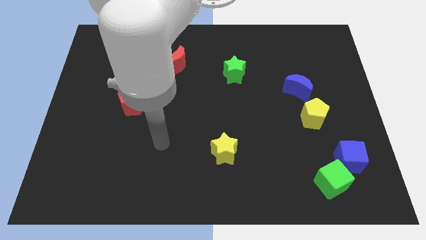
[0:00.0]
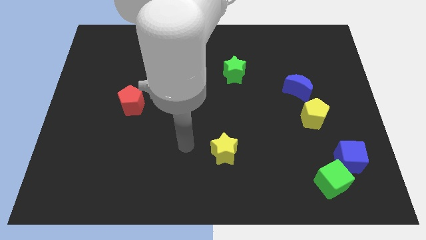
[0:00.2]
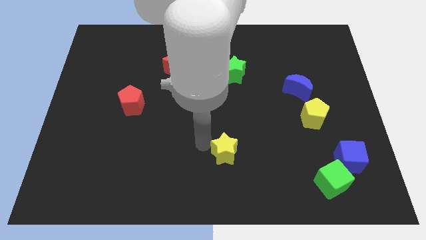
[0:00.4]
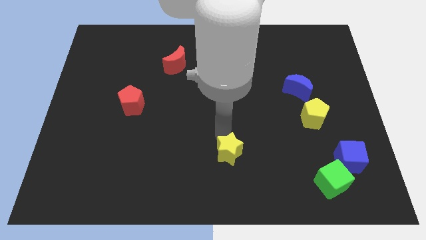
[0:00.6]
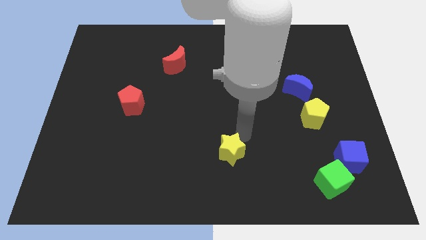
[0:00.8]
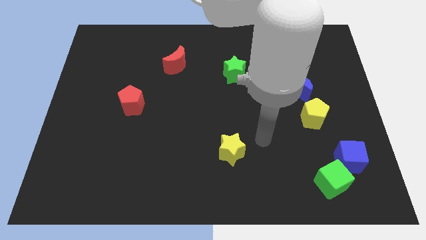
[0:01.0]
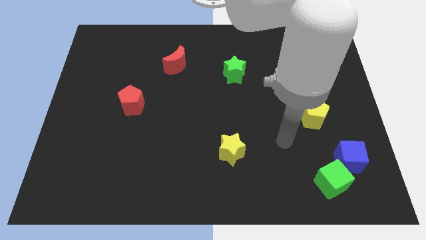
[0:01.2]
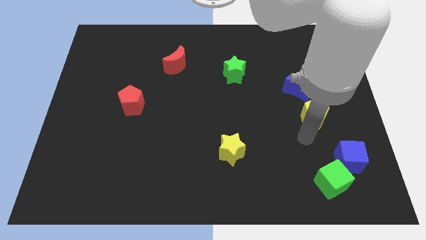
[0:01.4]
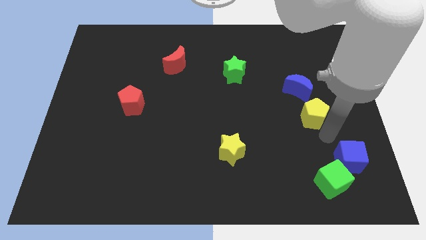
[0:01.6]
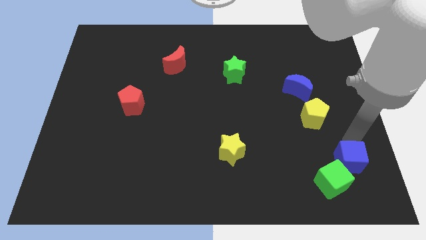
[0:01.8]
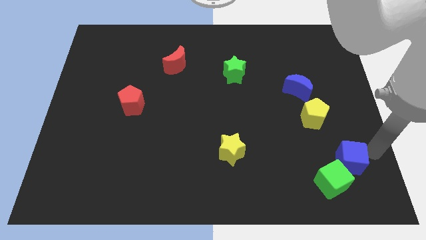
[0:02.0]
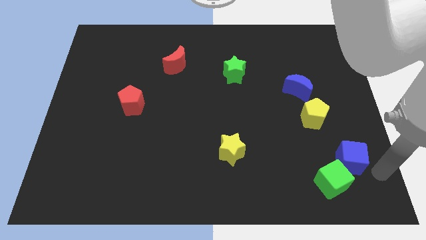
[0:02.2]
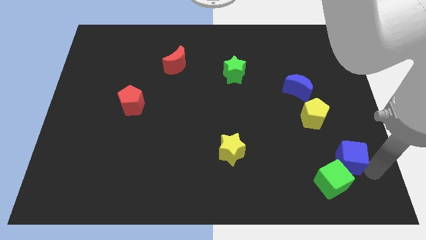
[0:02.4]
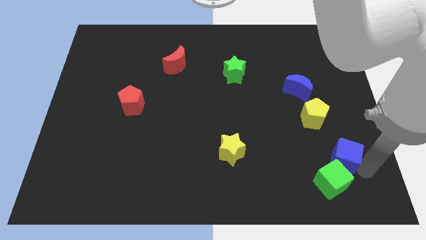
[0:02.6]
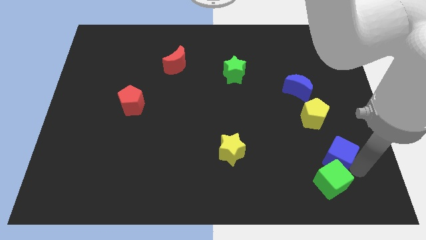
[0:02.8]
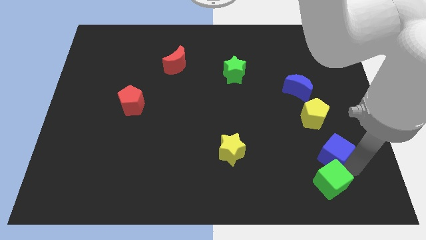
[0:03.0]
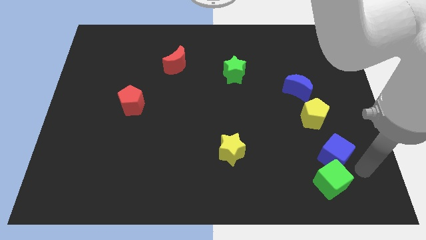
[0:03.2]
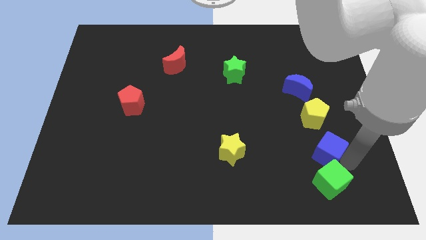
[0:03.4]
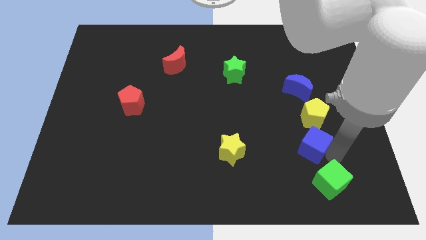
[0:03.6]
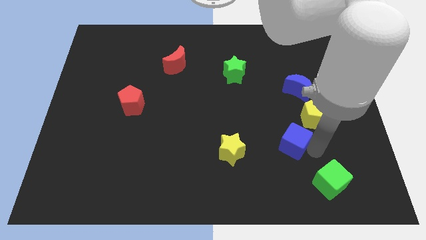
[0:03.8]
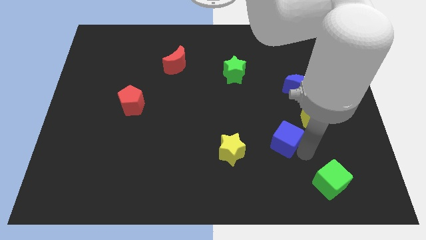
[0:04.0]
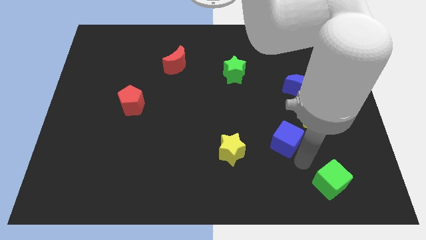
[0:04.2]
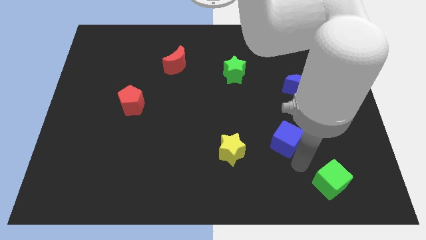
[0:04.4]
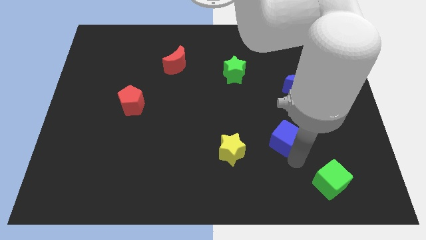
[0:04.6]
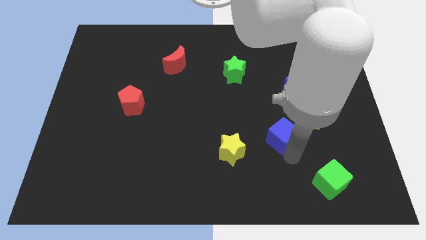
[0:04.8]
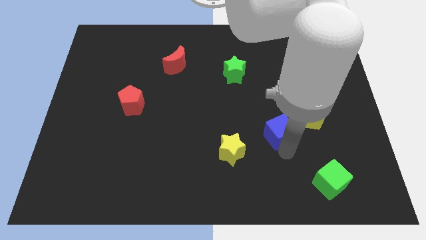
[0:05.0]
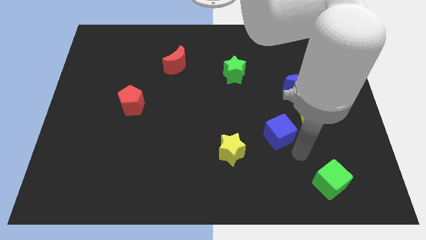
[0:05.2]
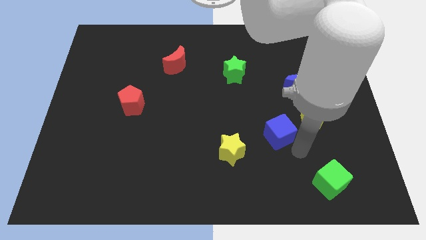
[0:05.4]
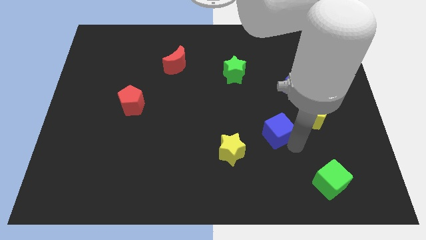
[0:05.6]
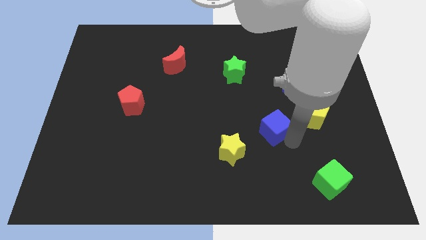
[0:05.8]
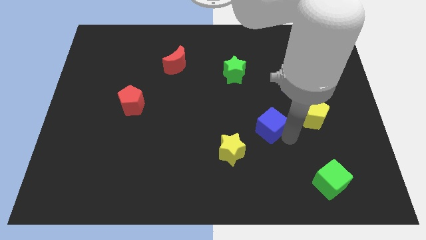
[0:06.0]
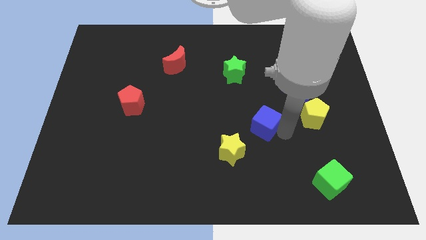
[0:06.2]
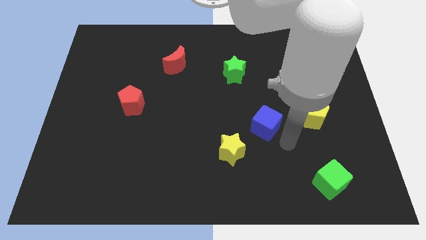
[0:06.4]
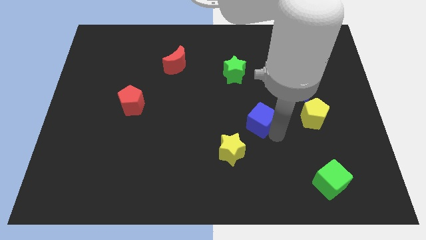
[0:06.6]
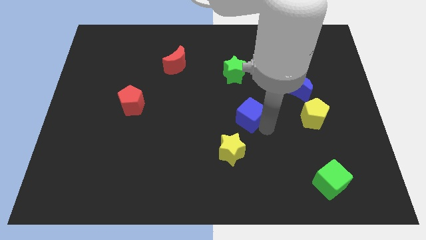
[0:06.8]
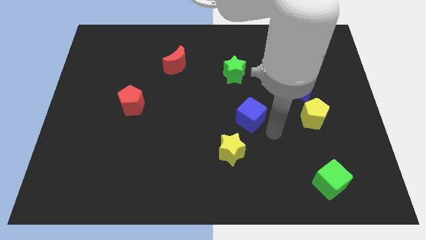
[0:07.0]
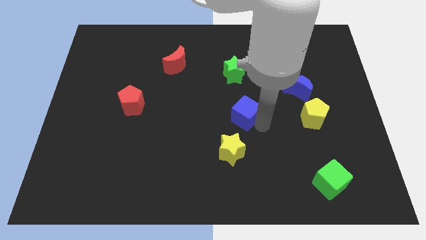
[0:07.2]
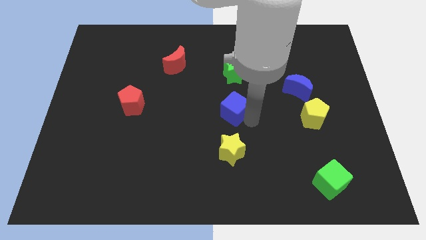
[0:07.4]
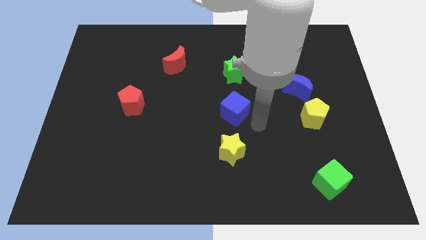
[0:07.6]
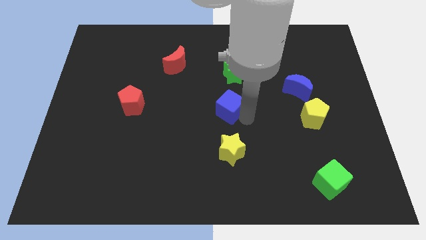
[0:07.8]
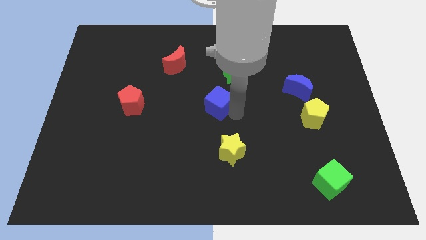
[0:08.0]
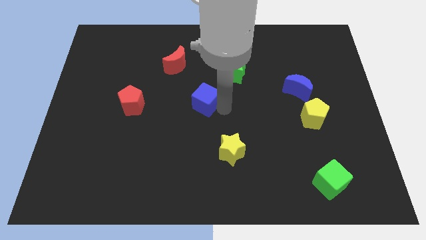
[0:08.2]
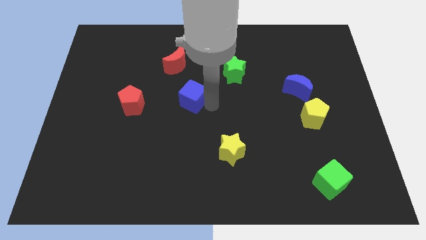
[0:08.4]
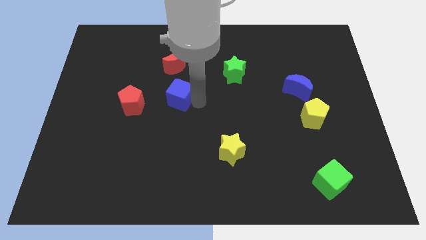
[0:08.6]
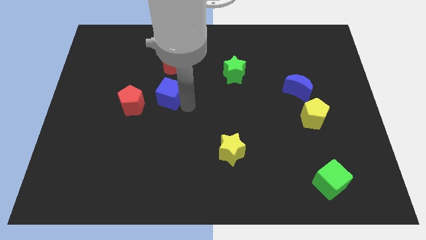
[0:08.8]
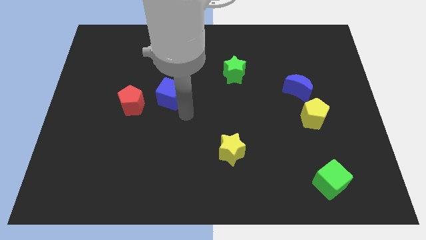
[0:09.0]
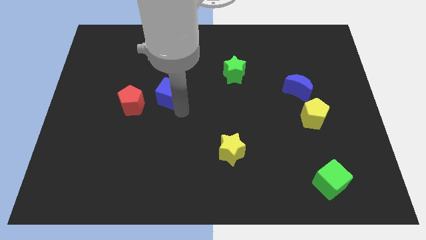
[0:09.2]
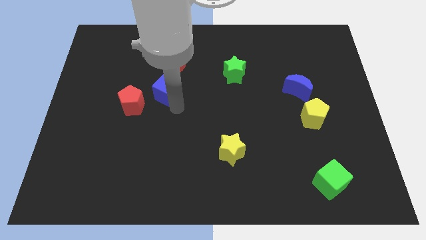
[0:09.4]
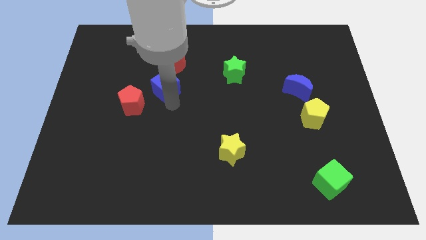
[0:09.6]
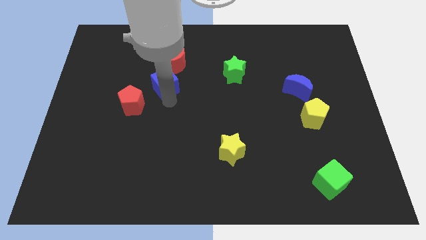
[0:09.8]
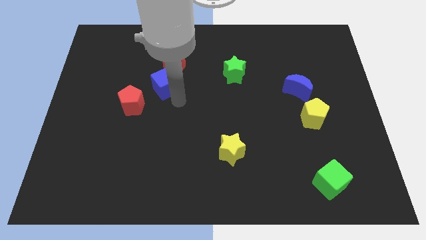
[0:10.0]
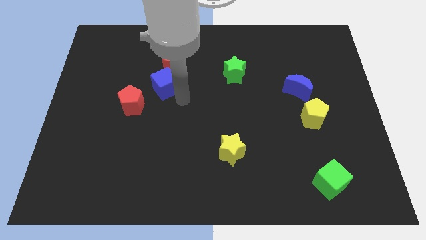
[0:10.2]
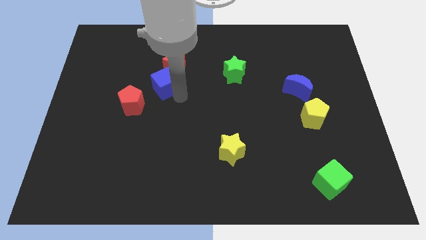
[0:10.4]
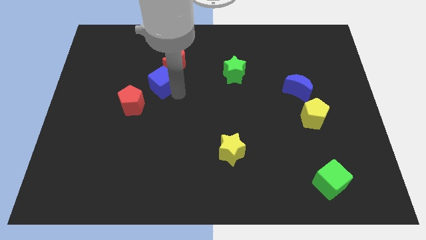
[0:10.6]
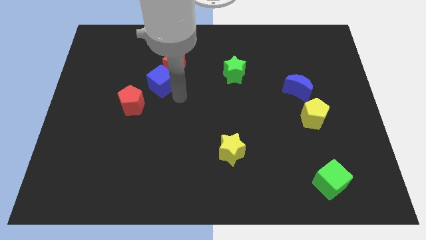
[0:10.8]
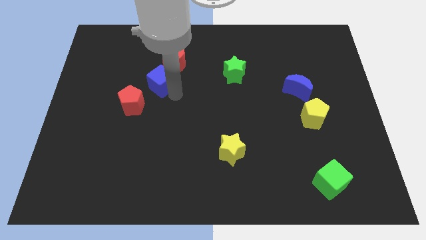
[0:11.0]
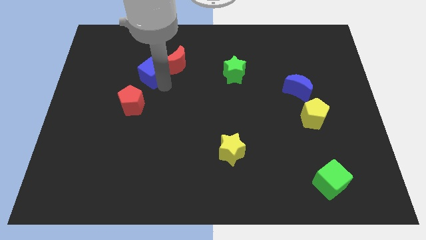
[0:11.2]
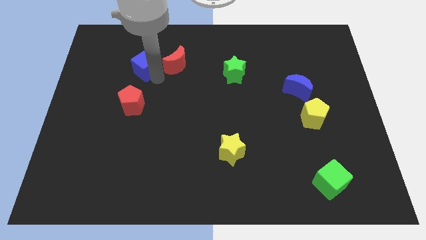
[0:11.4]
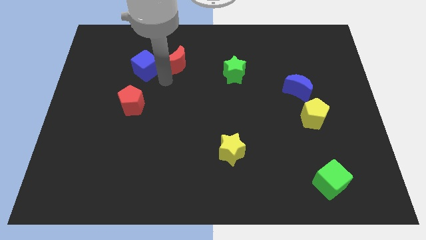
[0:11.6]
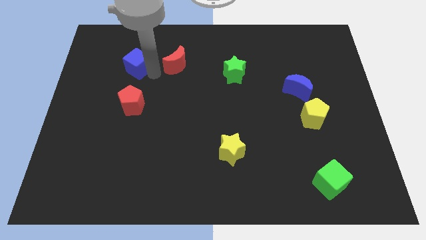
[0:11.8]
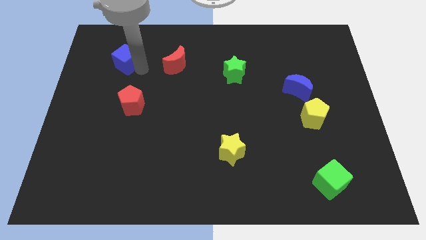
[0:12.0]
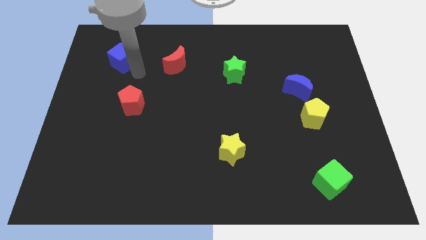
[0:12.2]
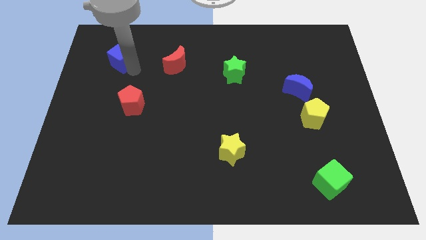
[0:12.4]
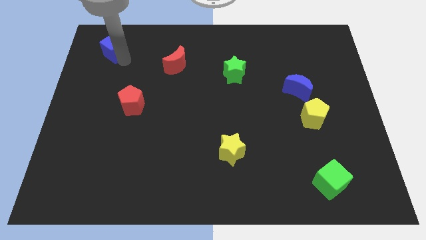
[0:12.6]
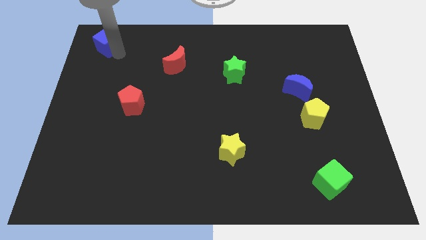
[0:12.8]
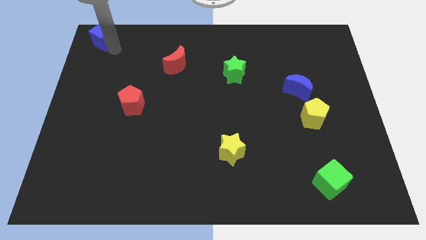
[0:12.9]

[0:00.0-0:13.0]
move the blue cube to the upper left corner
